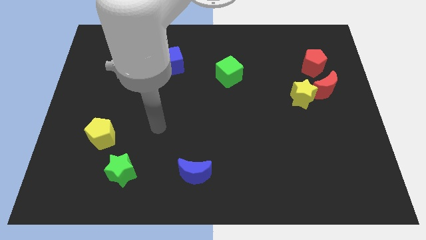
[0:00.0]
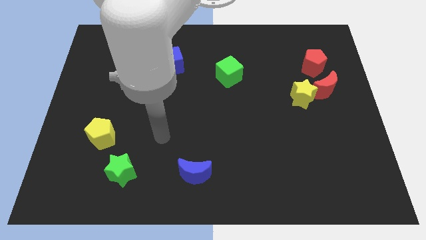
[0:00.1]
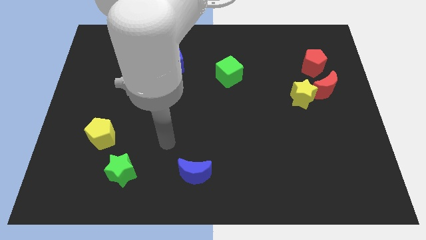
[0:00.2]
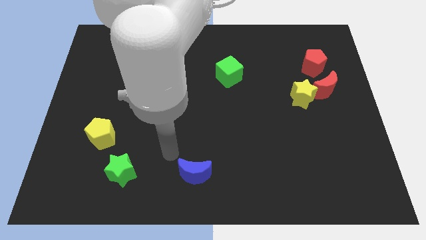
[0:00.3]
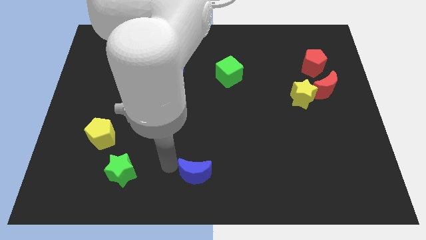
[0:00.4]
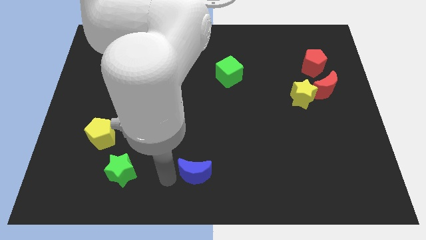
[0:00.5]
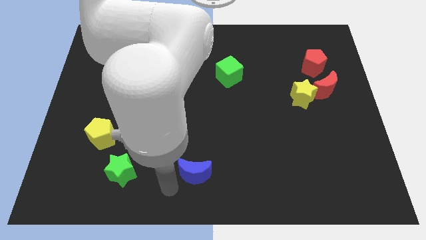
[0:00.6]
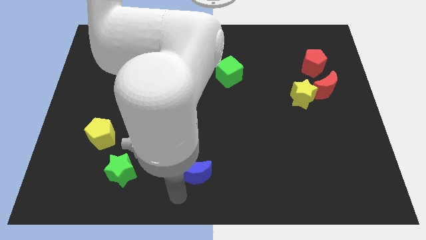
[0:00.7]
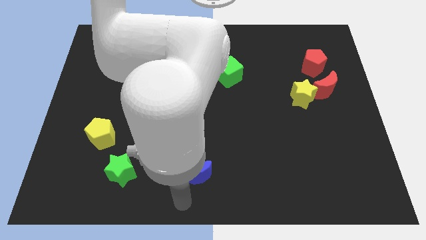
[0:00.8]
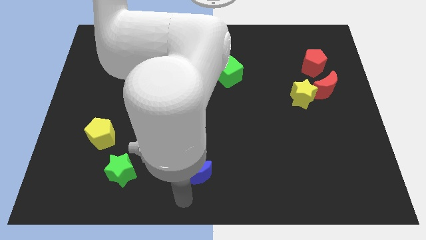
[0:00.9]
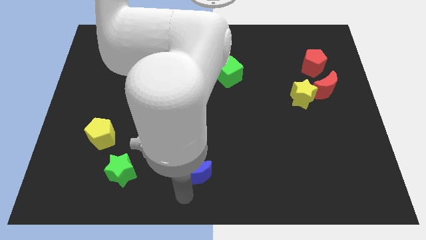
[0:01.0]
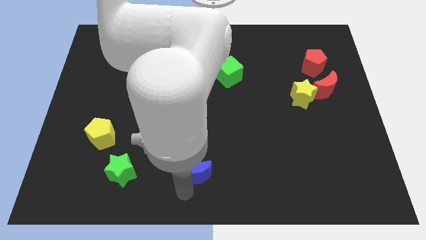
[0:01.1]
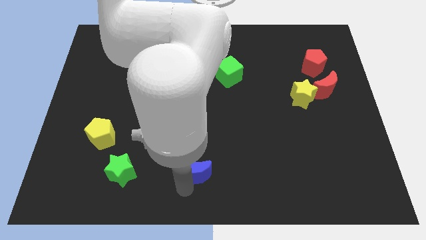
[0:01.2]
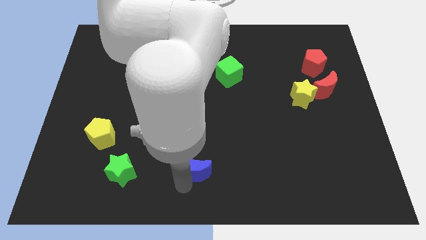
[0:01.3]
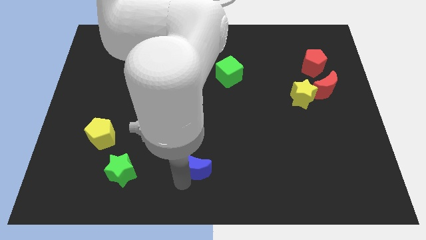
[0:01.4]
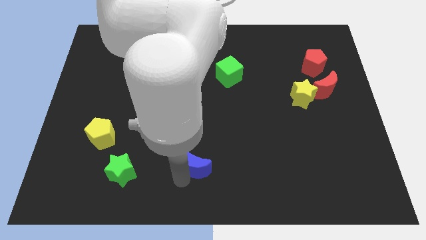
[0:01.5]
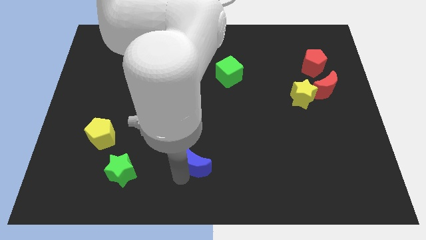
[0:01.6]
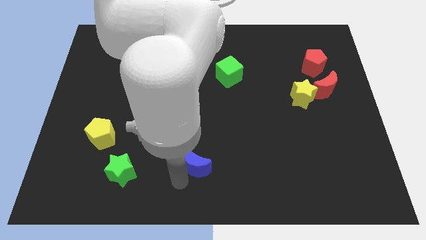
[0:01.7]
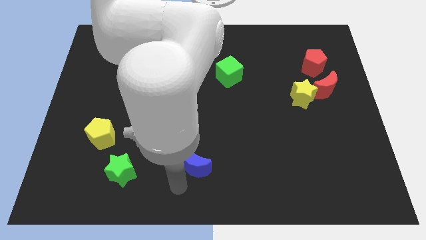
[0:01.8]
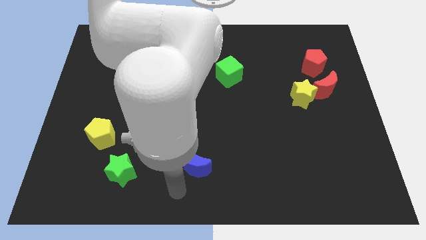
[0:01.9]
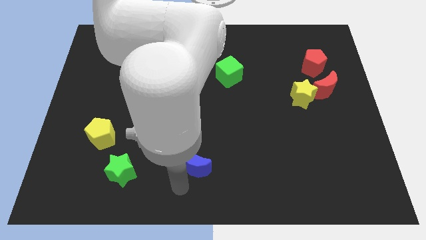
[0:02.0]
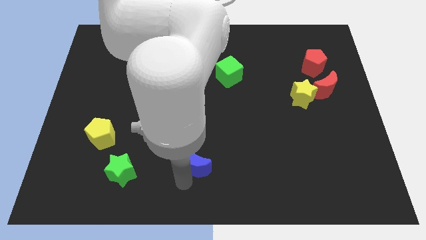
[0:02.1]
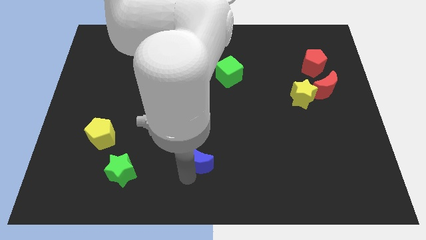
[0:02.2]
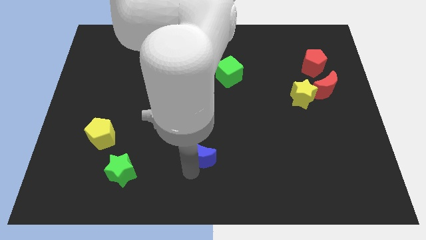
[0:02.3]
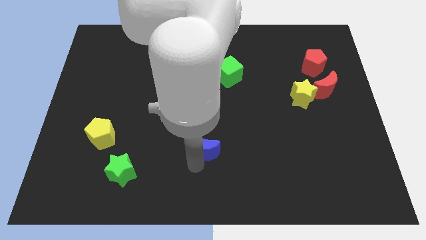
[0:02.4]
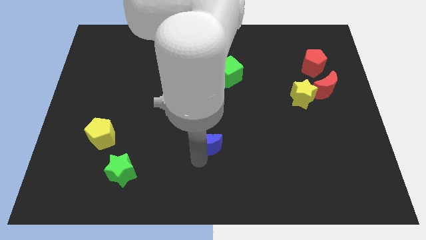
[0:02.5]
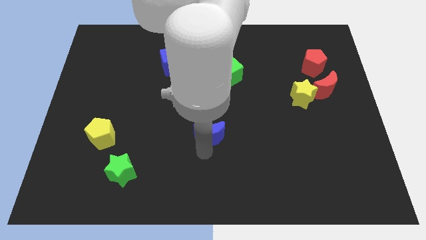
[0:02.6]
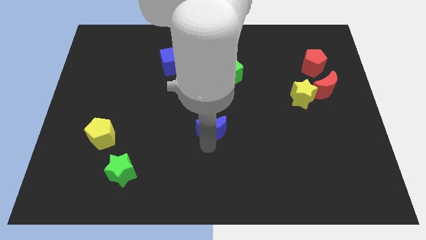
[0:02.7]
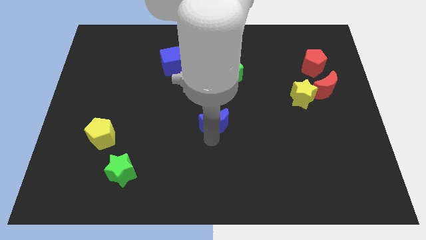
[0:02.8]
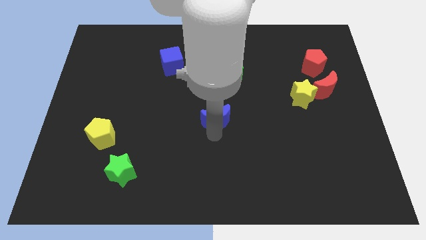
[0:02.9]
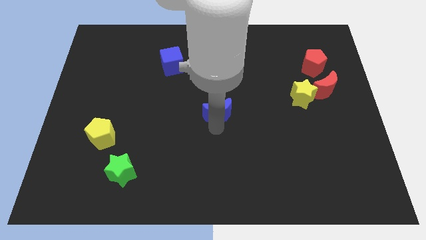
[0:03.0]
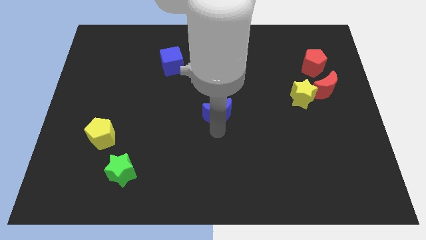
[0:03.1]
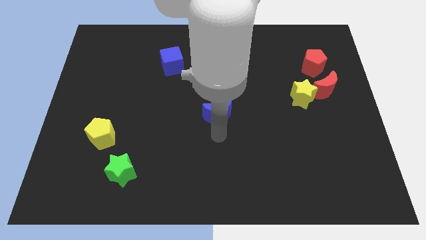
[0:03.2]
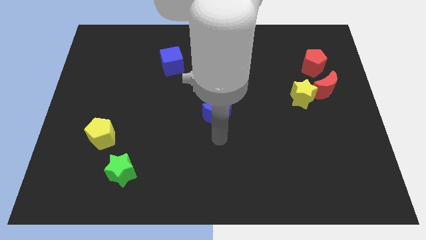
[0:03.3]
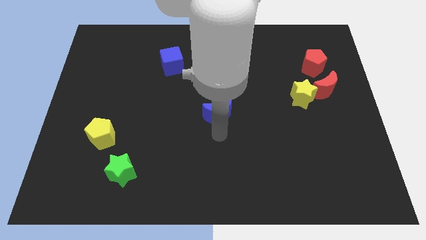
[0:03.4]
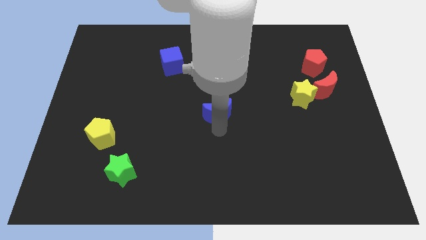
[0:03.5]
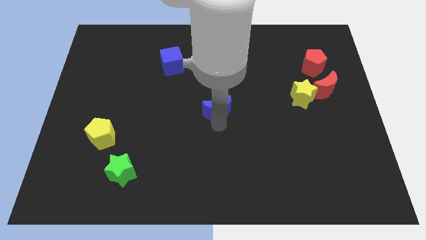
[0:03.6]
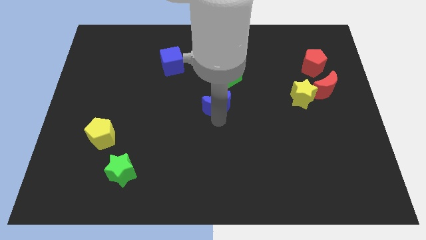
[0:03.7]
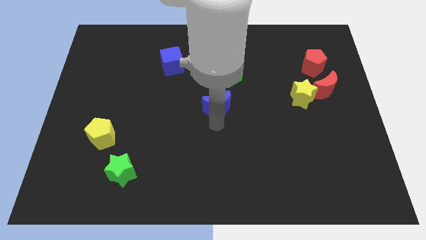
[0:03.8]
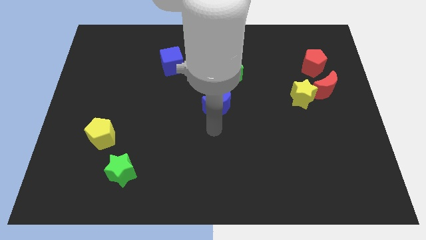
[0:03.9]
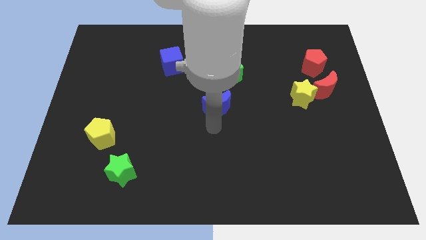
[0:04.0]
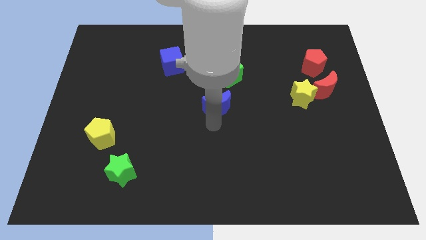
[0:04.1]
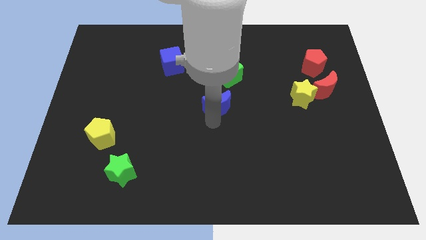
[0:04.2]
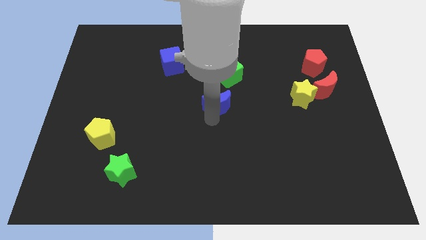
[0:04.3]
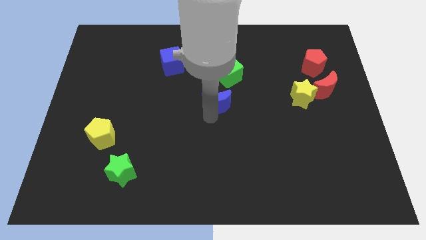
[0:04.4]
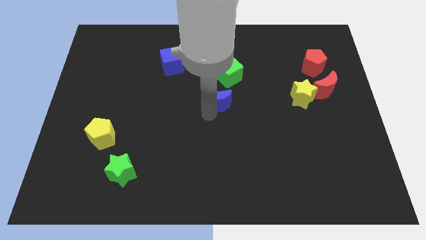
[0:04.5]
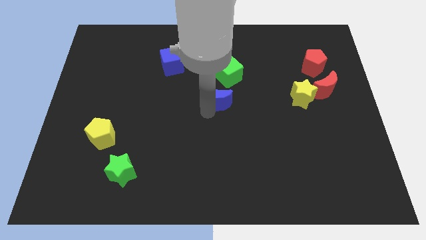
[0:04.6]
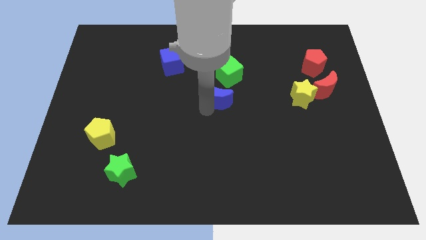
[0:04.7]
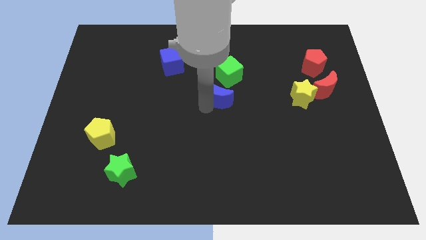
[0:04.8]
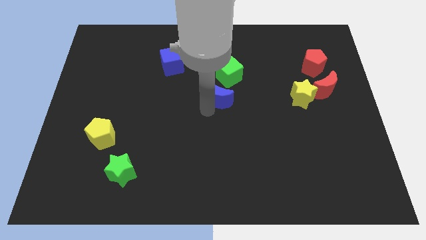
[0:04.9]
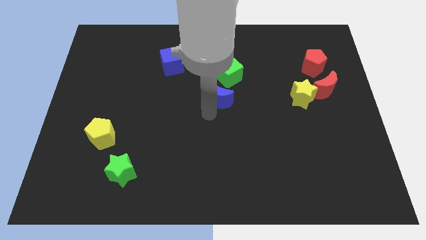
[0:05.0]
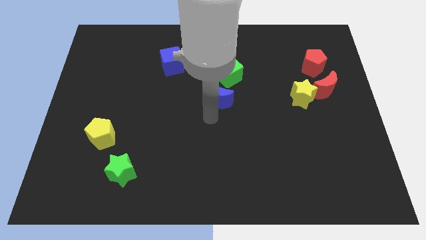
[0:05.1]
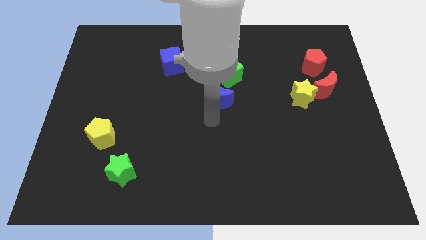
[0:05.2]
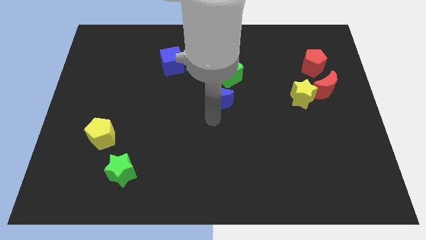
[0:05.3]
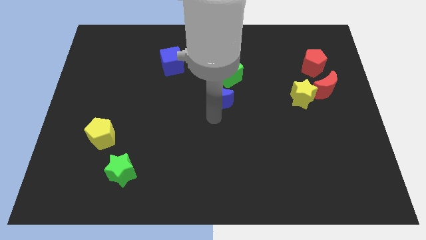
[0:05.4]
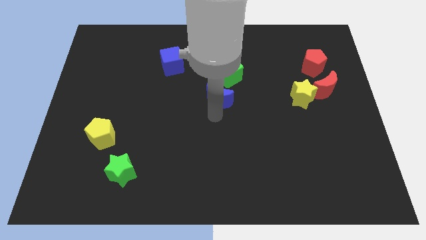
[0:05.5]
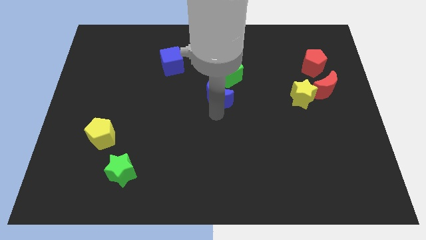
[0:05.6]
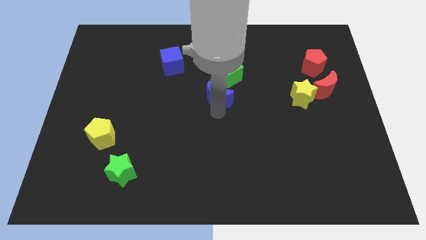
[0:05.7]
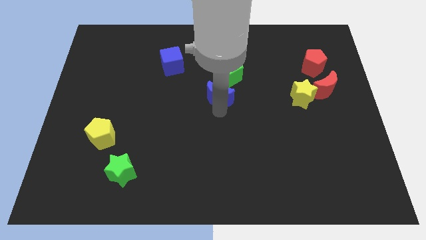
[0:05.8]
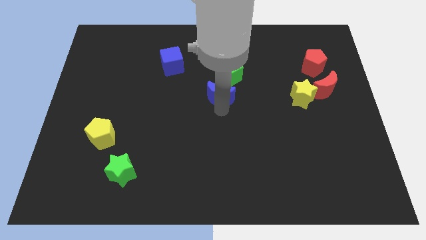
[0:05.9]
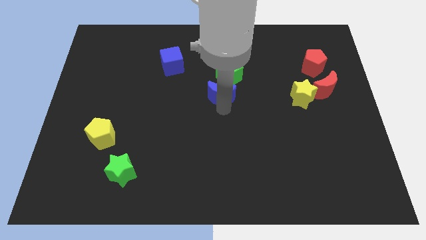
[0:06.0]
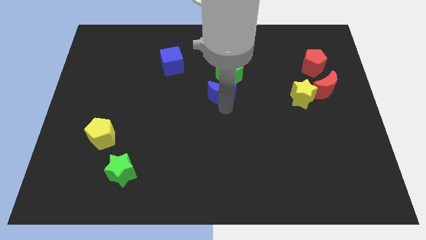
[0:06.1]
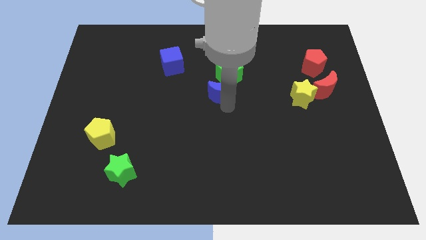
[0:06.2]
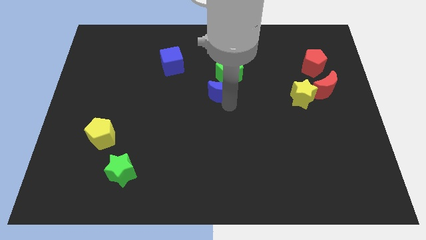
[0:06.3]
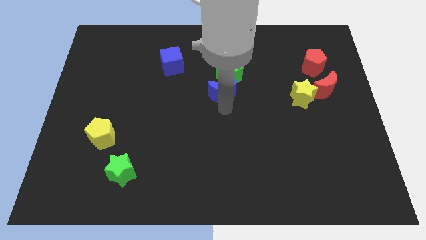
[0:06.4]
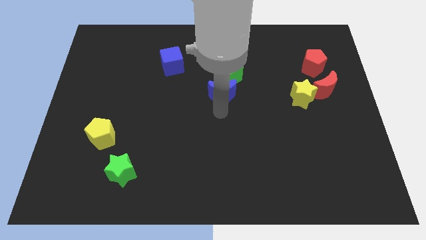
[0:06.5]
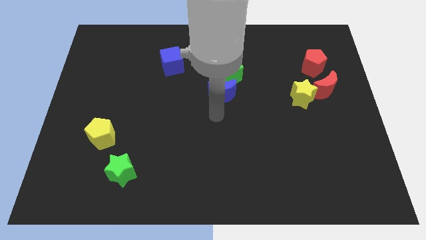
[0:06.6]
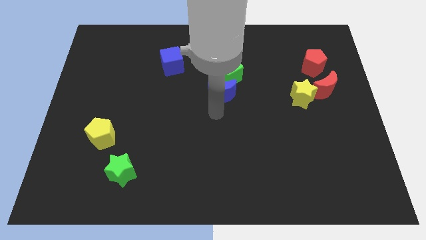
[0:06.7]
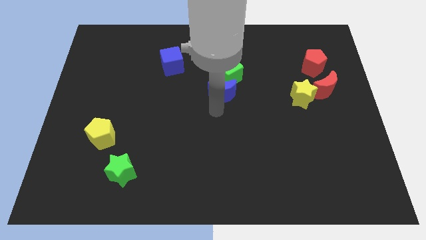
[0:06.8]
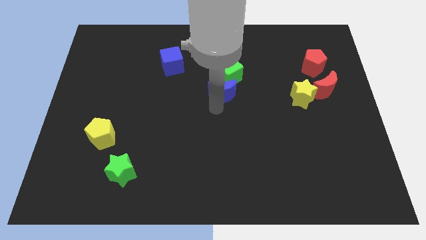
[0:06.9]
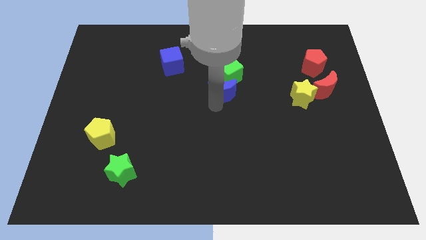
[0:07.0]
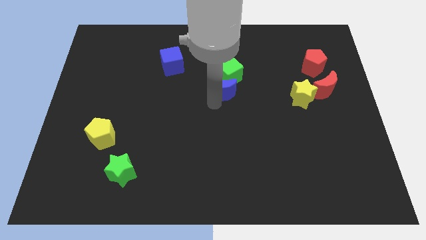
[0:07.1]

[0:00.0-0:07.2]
move the blue moon towards the green cube

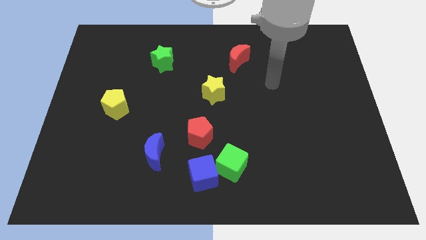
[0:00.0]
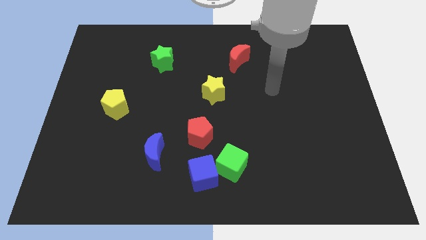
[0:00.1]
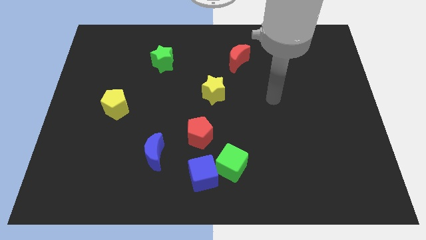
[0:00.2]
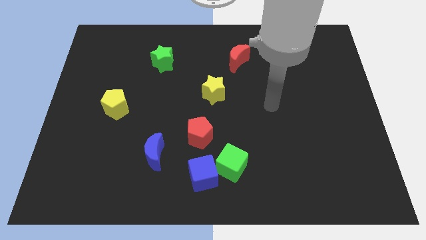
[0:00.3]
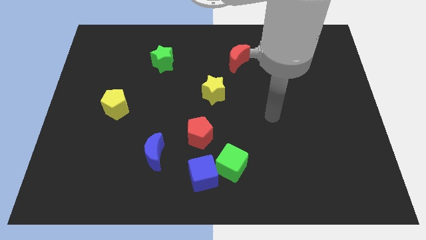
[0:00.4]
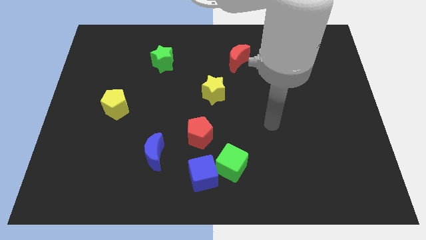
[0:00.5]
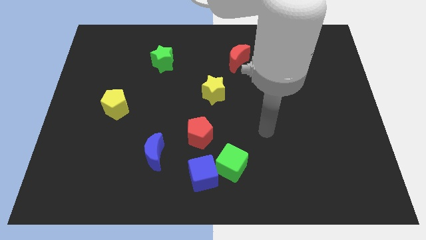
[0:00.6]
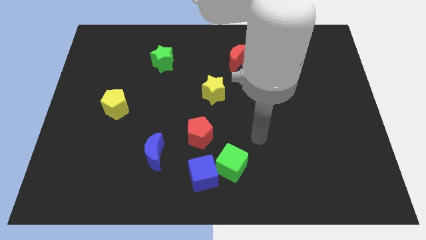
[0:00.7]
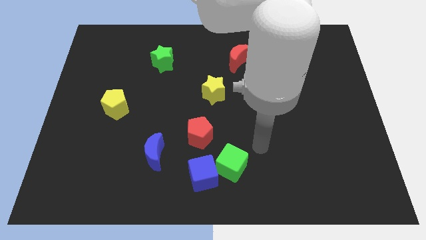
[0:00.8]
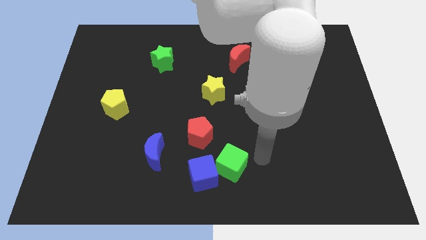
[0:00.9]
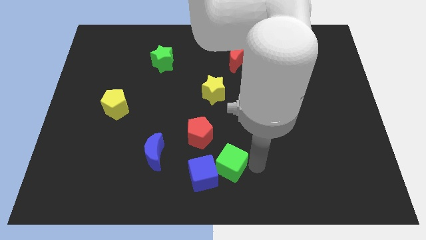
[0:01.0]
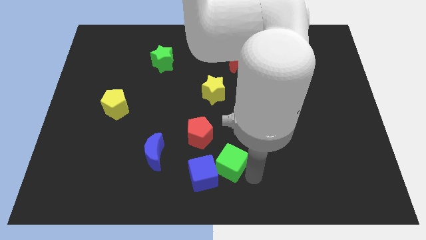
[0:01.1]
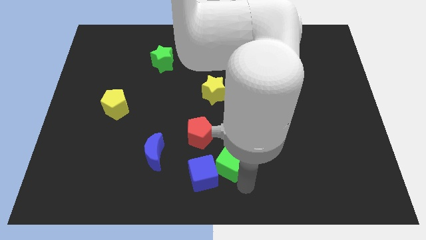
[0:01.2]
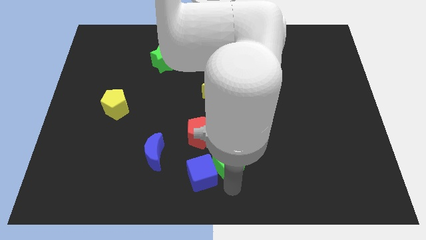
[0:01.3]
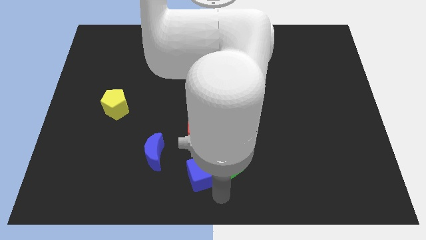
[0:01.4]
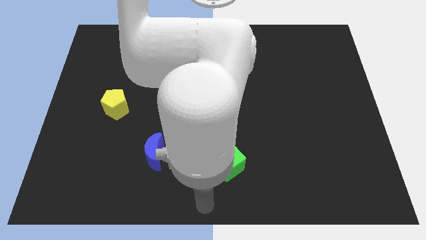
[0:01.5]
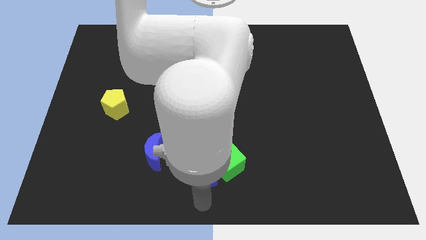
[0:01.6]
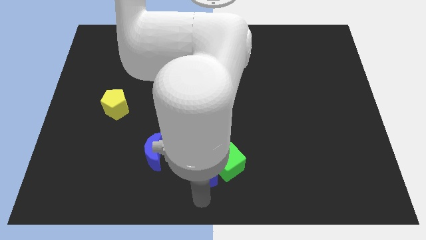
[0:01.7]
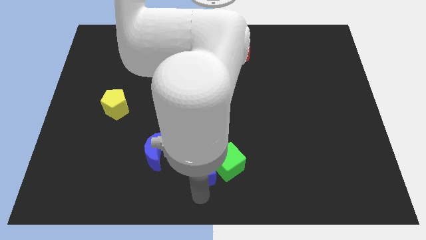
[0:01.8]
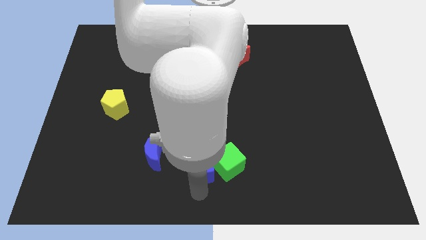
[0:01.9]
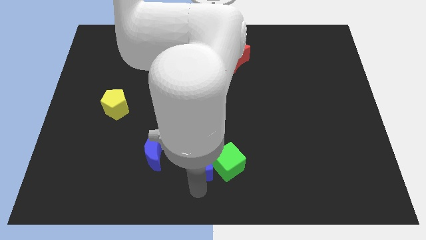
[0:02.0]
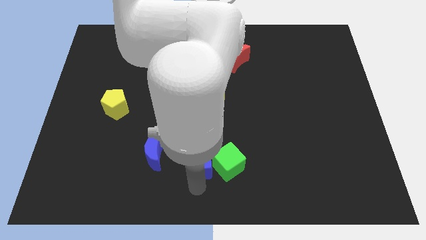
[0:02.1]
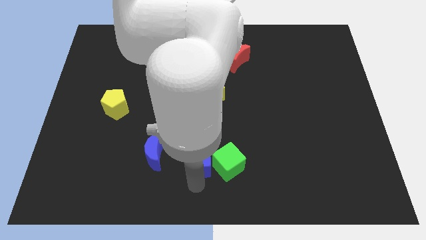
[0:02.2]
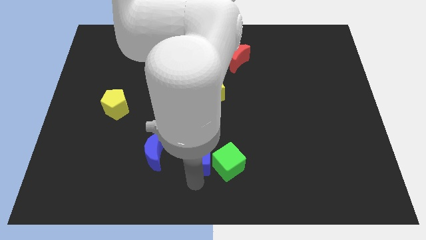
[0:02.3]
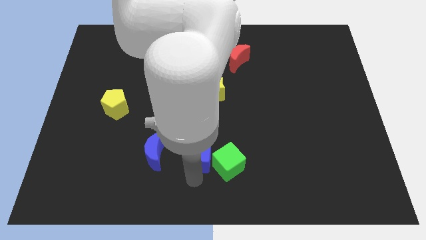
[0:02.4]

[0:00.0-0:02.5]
push the blue cube close to the red pentagon
